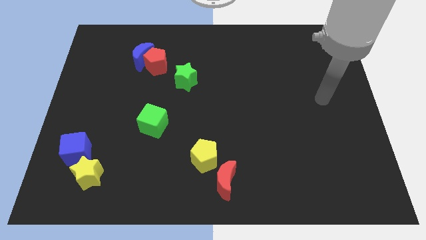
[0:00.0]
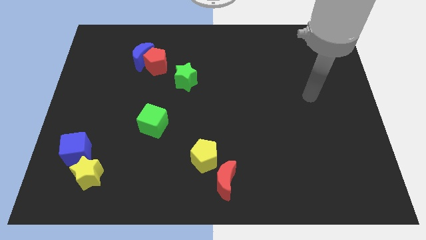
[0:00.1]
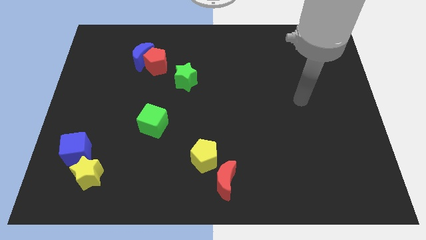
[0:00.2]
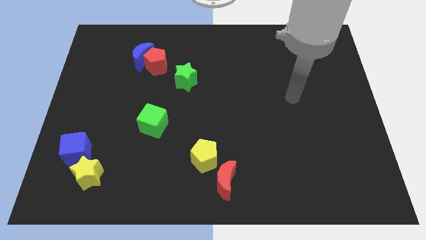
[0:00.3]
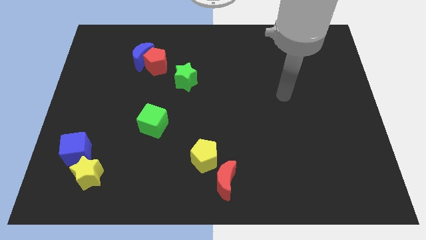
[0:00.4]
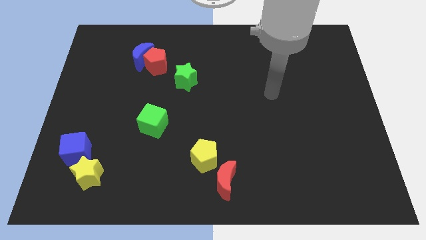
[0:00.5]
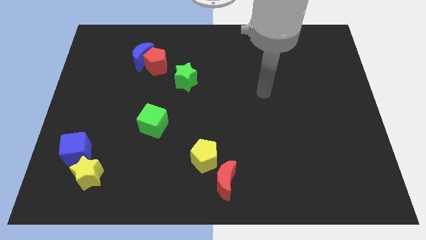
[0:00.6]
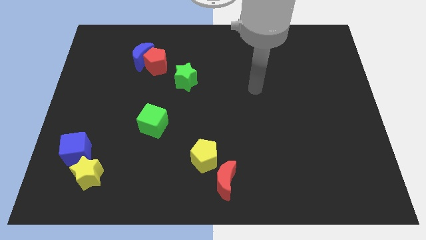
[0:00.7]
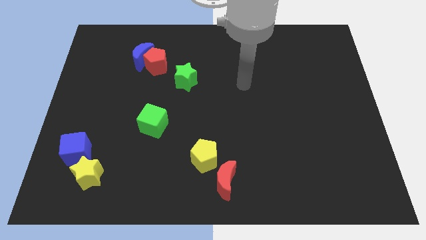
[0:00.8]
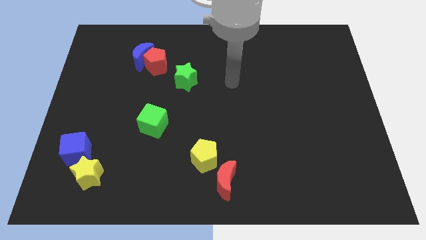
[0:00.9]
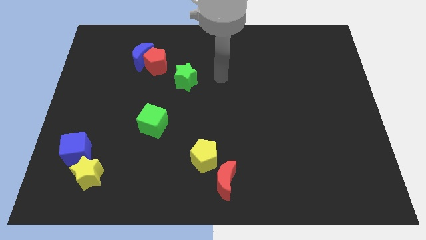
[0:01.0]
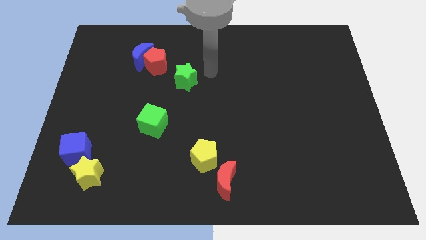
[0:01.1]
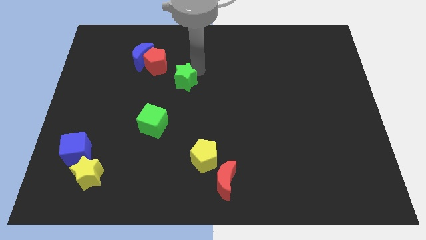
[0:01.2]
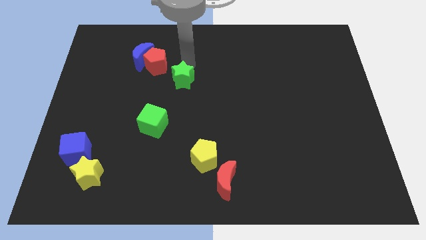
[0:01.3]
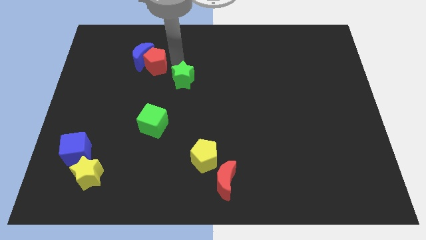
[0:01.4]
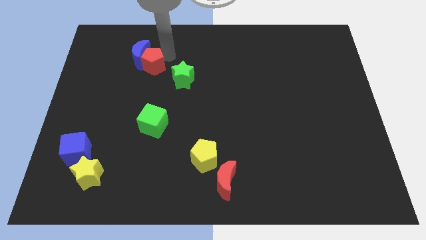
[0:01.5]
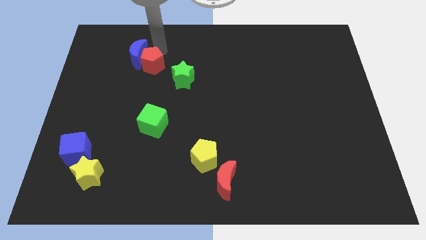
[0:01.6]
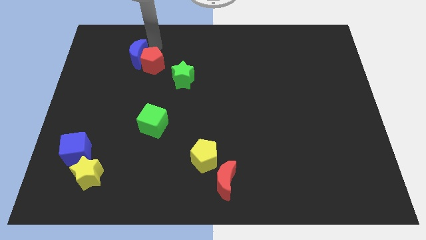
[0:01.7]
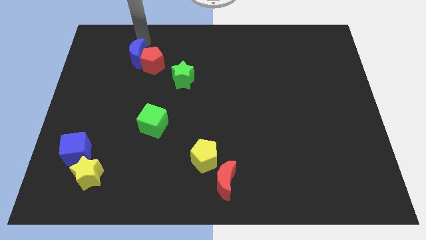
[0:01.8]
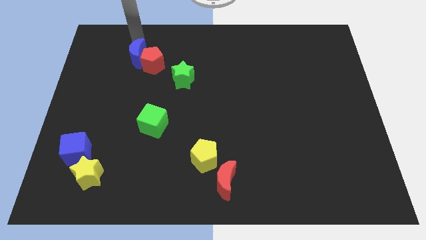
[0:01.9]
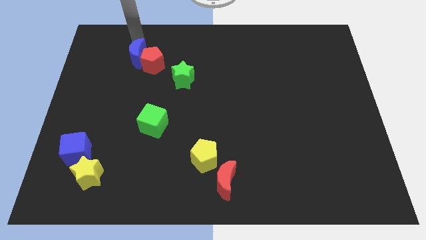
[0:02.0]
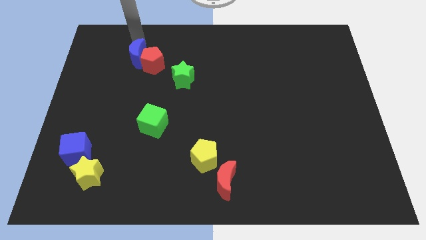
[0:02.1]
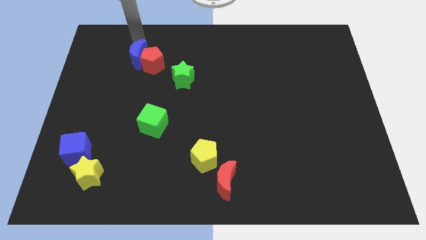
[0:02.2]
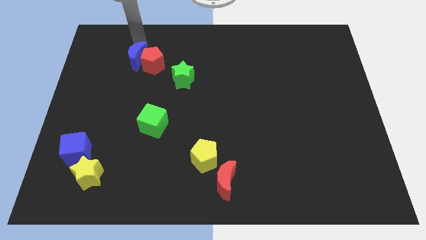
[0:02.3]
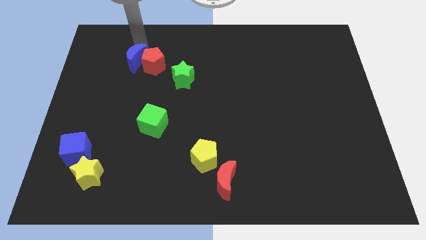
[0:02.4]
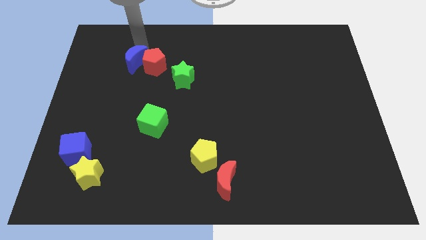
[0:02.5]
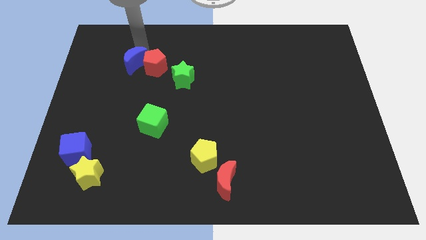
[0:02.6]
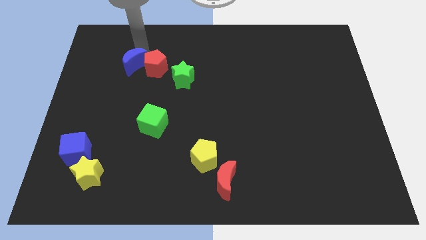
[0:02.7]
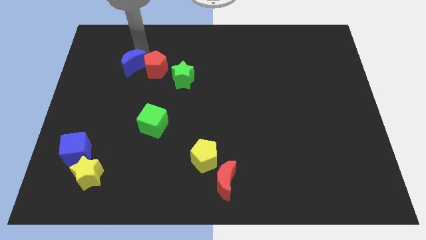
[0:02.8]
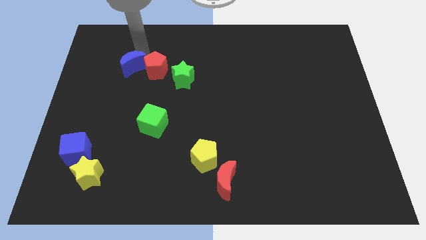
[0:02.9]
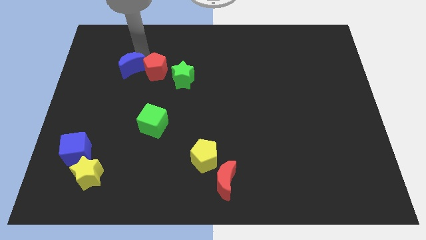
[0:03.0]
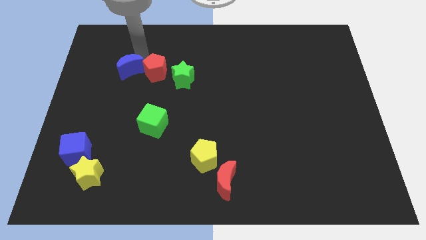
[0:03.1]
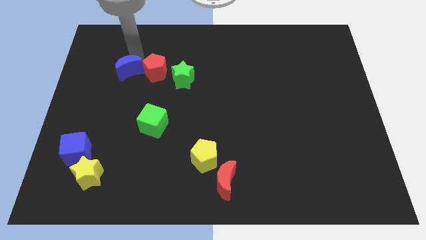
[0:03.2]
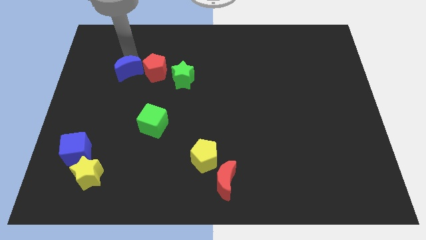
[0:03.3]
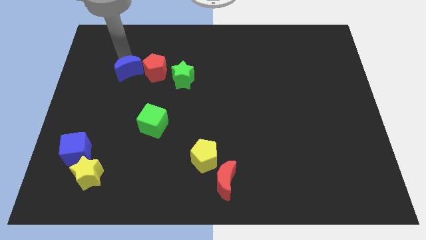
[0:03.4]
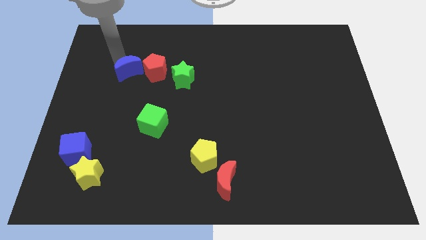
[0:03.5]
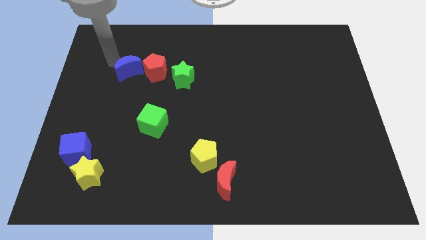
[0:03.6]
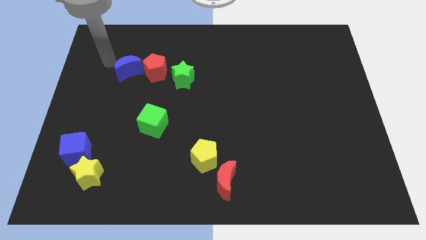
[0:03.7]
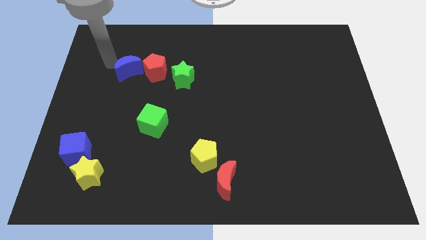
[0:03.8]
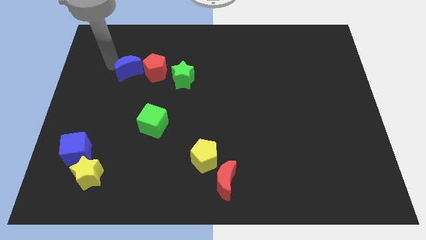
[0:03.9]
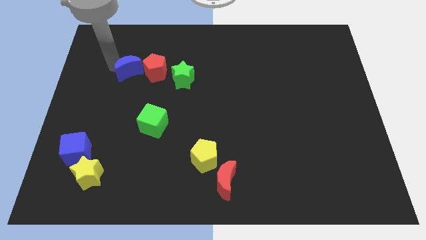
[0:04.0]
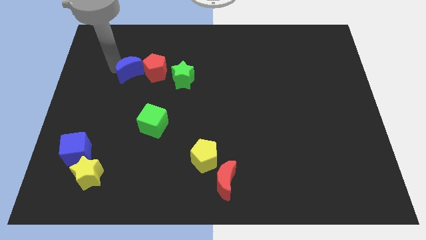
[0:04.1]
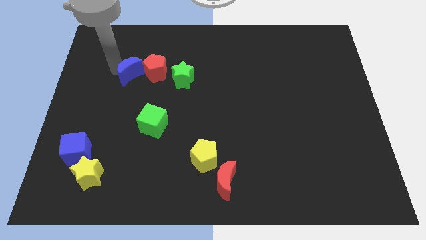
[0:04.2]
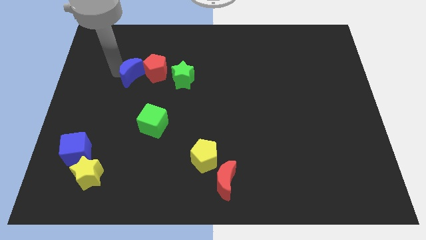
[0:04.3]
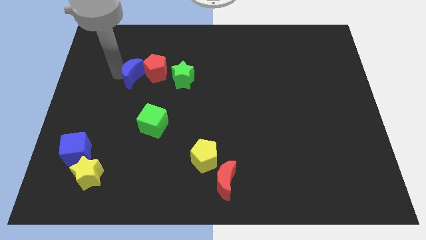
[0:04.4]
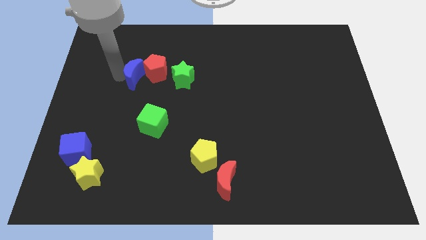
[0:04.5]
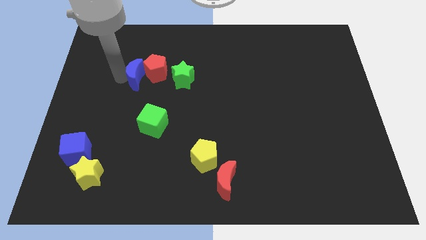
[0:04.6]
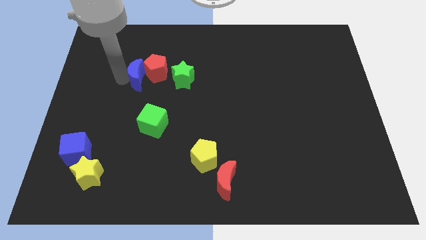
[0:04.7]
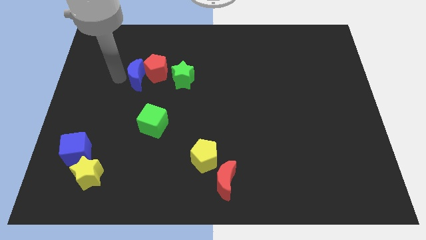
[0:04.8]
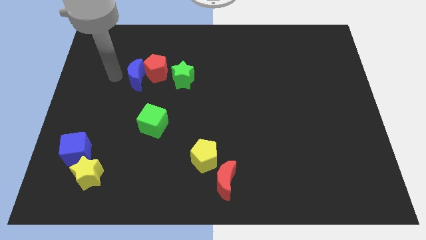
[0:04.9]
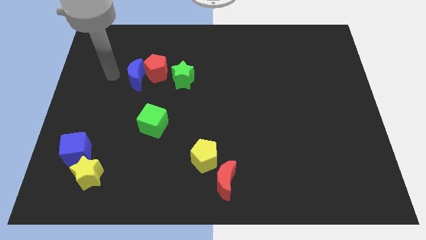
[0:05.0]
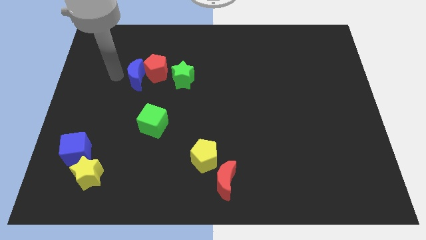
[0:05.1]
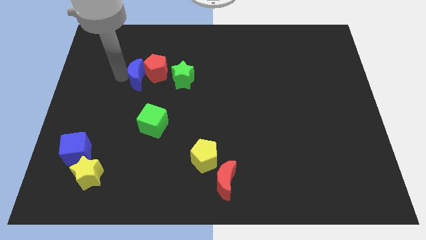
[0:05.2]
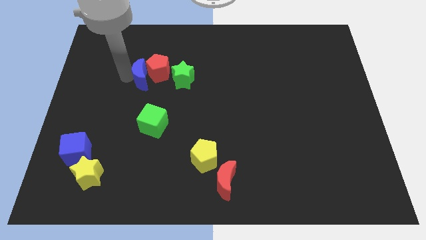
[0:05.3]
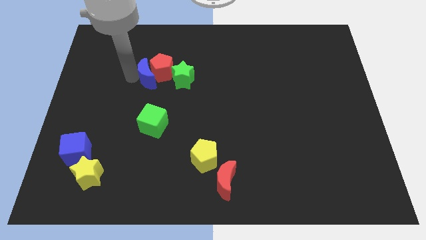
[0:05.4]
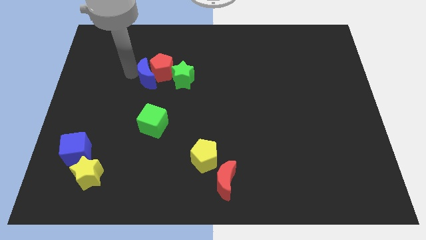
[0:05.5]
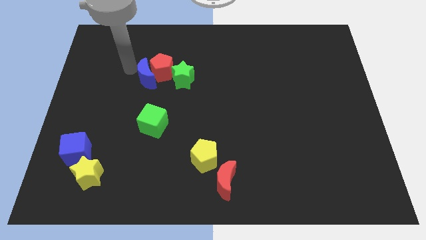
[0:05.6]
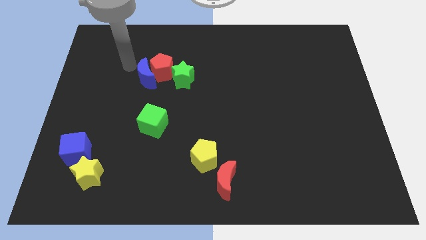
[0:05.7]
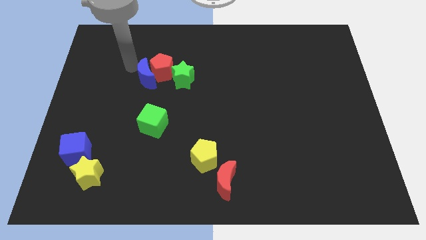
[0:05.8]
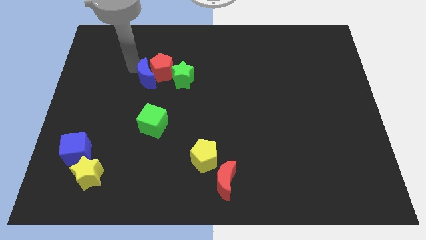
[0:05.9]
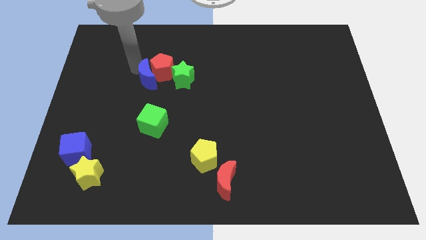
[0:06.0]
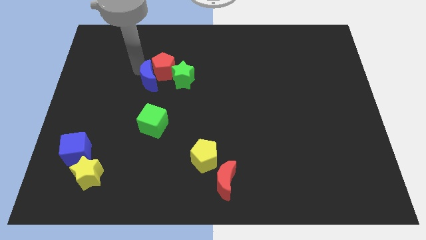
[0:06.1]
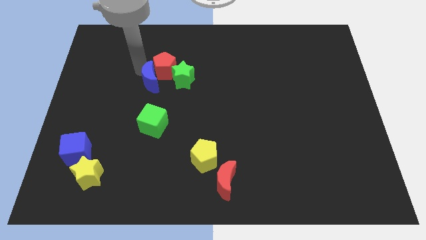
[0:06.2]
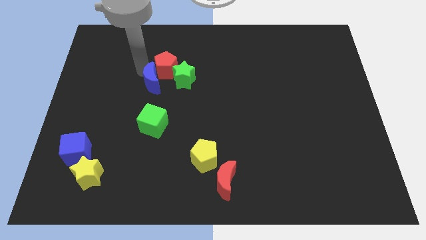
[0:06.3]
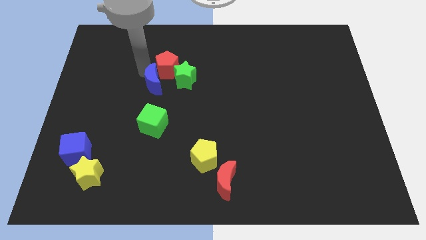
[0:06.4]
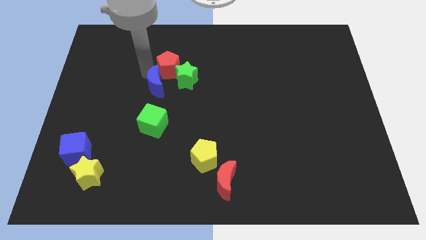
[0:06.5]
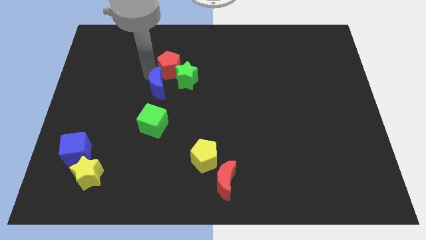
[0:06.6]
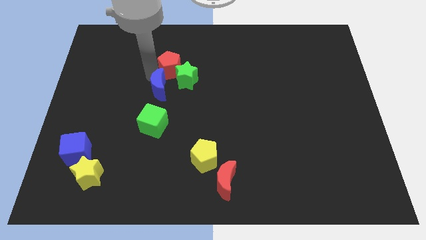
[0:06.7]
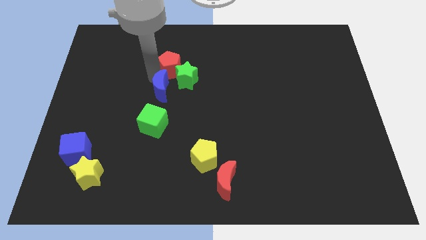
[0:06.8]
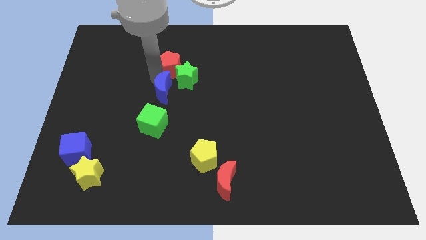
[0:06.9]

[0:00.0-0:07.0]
push the blue moon to the center

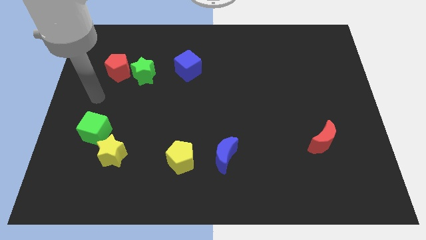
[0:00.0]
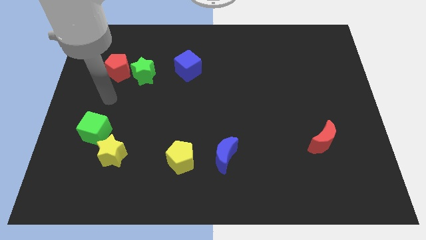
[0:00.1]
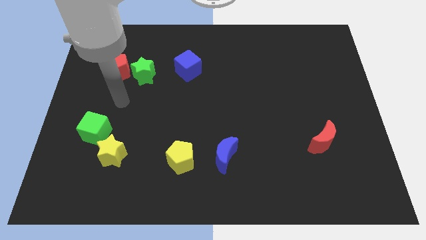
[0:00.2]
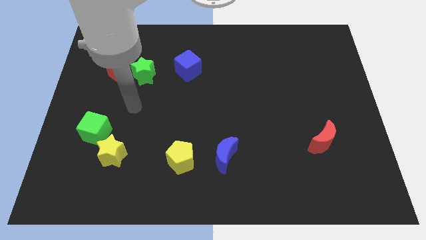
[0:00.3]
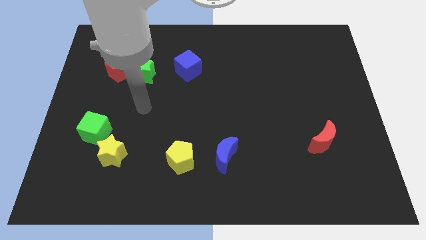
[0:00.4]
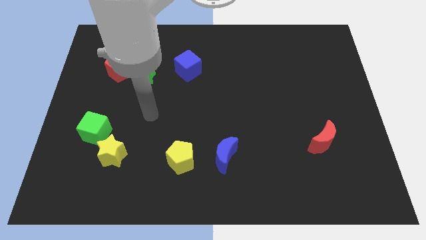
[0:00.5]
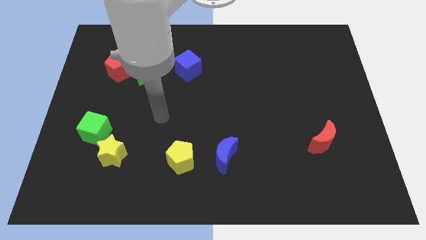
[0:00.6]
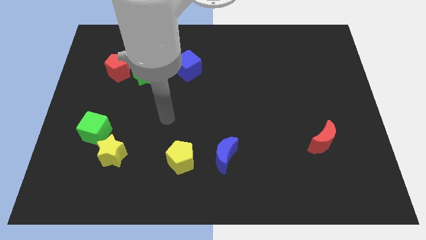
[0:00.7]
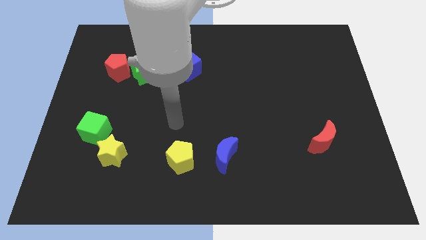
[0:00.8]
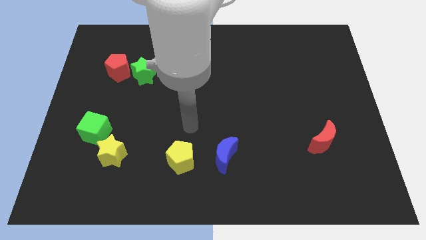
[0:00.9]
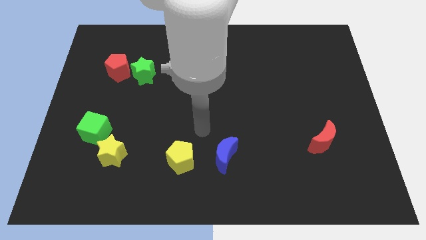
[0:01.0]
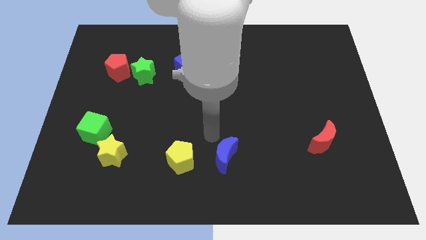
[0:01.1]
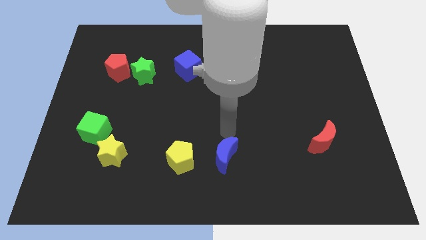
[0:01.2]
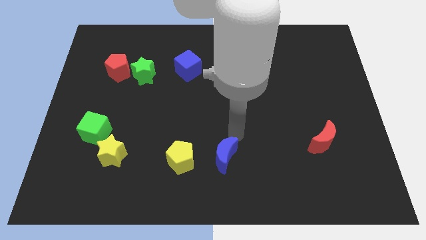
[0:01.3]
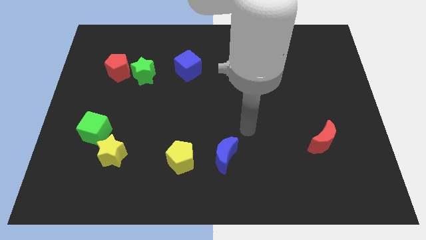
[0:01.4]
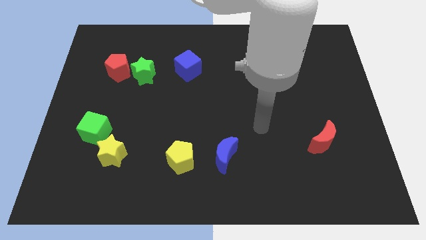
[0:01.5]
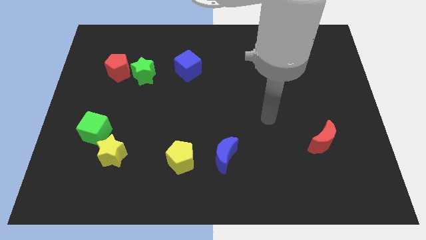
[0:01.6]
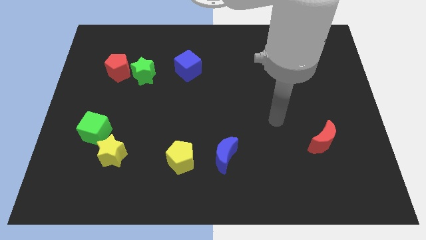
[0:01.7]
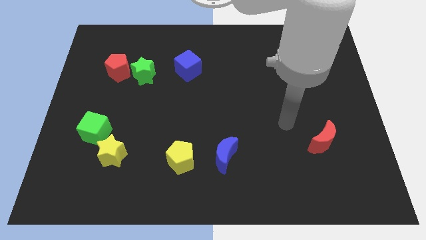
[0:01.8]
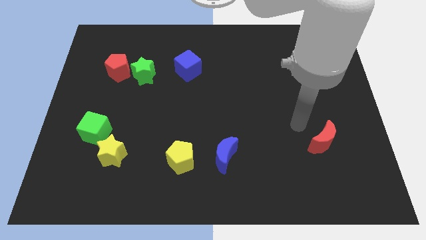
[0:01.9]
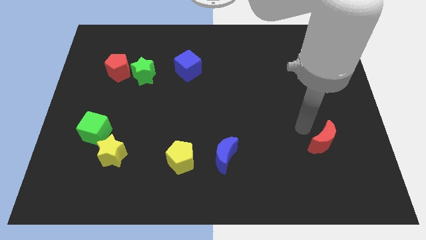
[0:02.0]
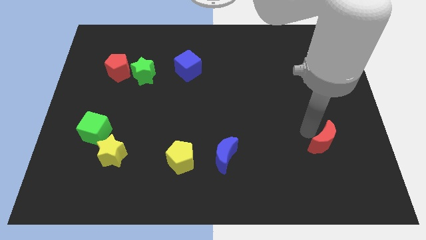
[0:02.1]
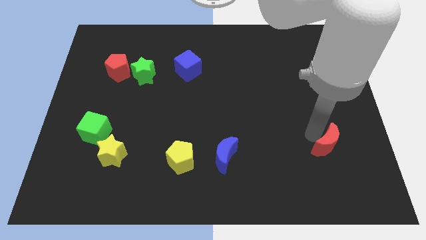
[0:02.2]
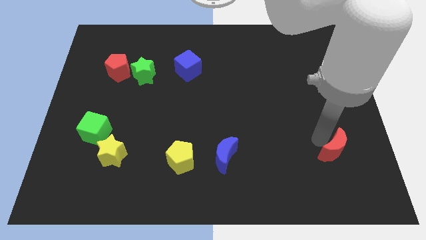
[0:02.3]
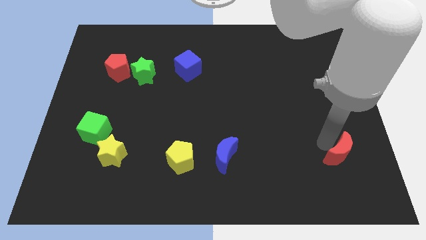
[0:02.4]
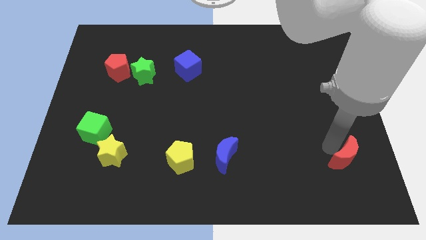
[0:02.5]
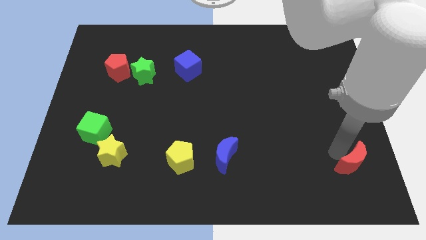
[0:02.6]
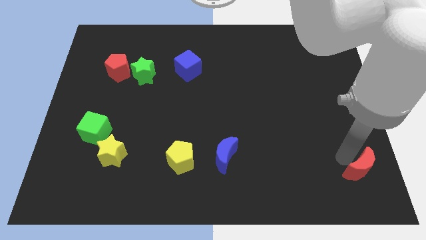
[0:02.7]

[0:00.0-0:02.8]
slide the red moon to the lower right corner
